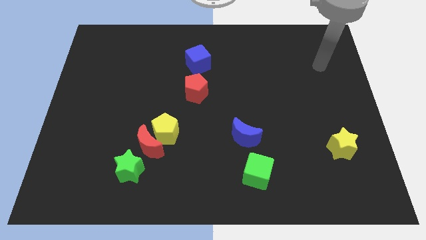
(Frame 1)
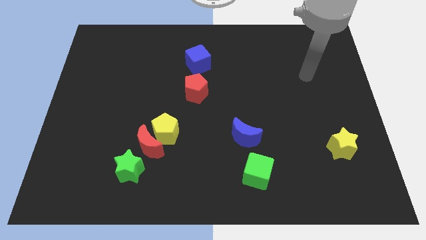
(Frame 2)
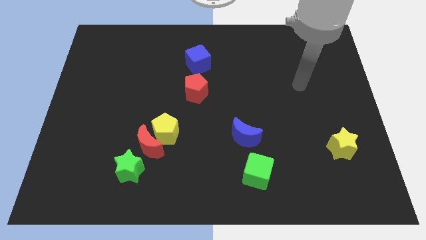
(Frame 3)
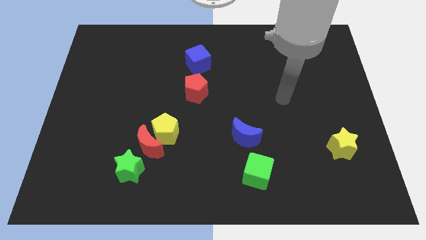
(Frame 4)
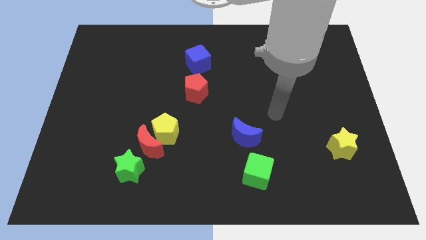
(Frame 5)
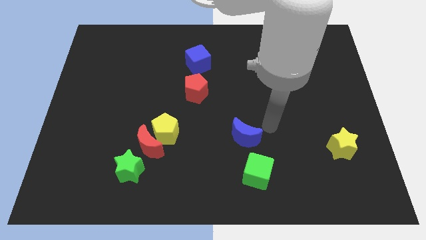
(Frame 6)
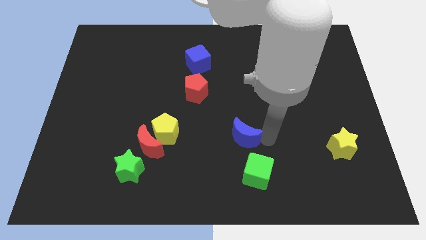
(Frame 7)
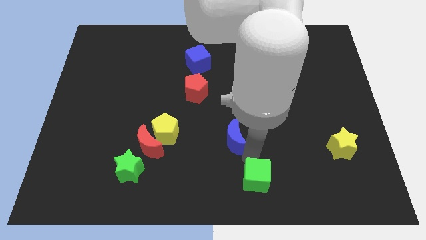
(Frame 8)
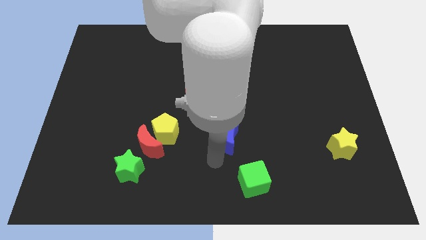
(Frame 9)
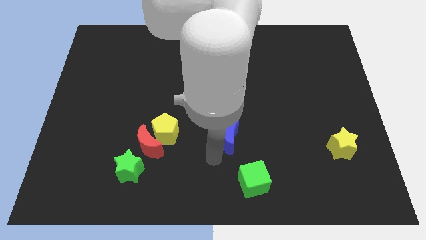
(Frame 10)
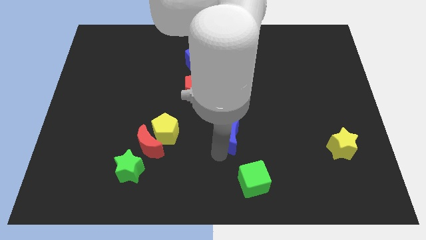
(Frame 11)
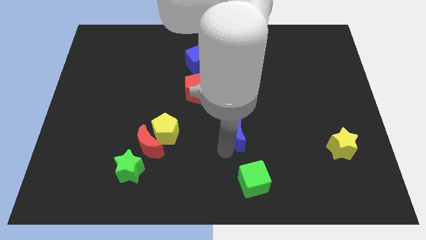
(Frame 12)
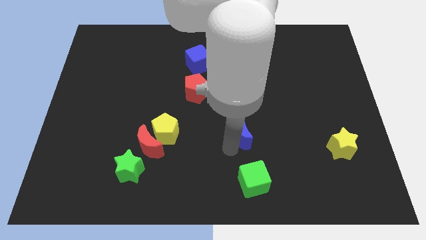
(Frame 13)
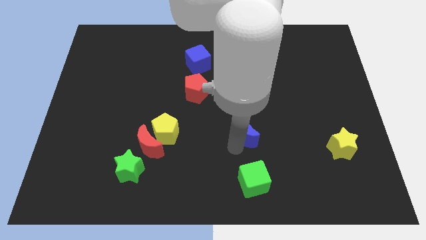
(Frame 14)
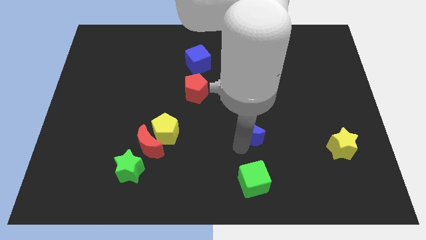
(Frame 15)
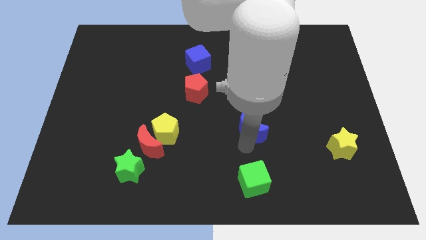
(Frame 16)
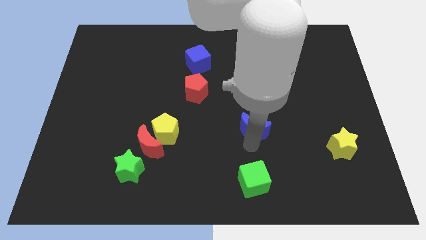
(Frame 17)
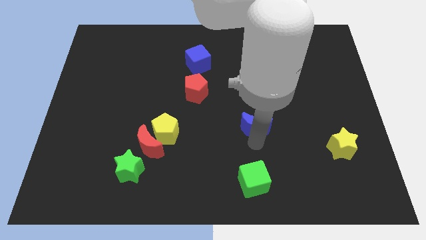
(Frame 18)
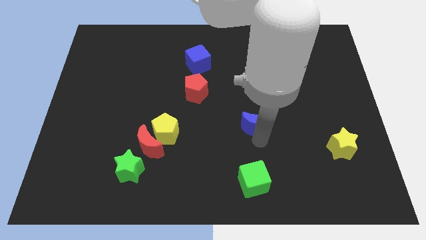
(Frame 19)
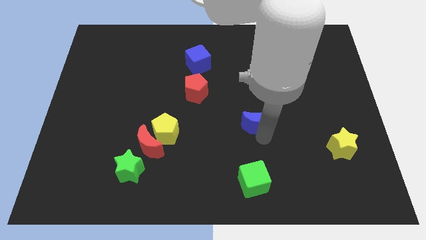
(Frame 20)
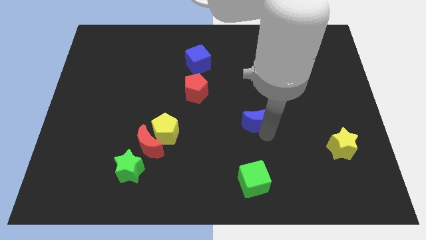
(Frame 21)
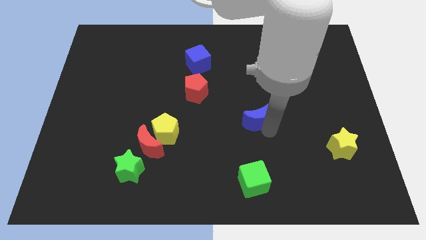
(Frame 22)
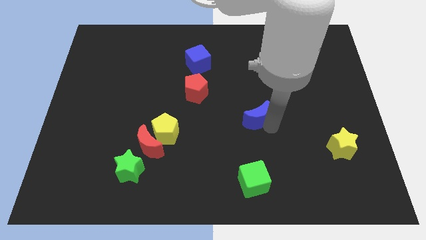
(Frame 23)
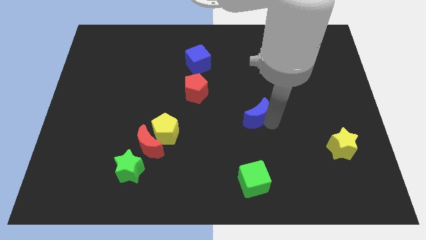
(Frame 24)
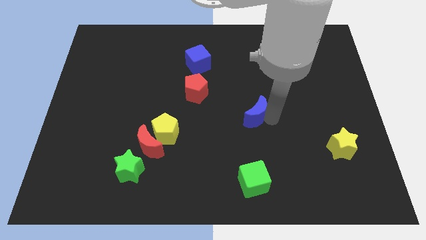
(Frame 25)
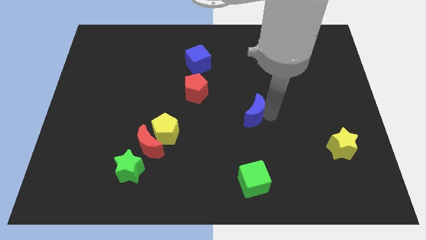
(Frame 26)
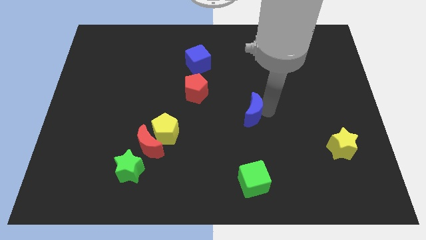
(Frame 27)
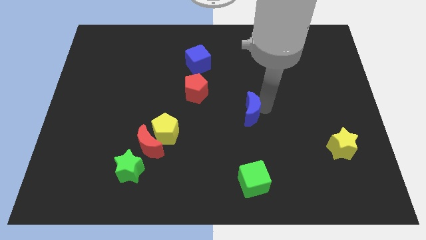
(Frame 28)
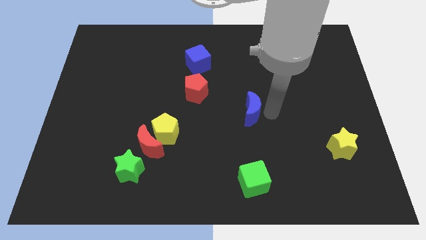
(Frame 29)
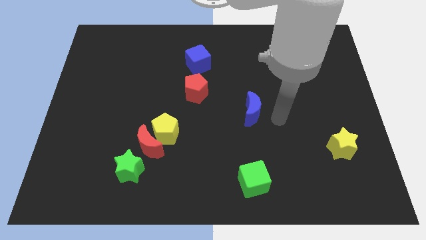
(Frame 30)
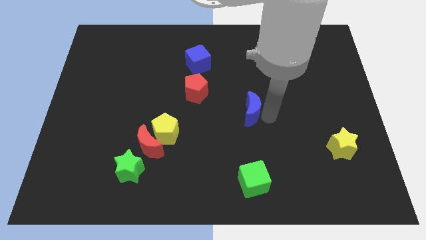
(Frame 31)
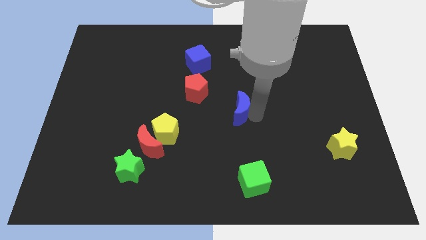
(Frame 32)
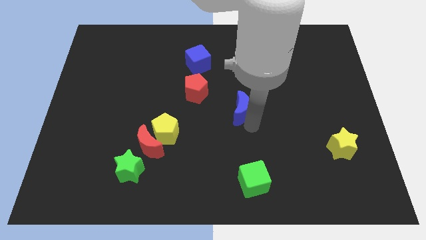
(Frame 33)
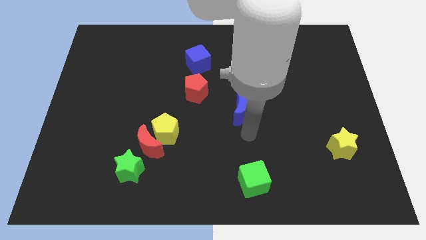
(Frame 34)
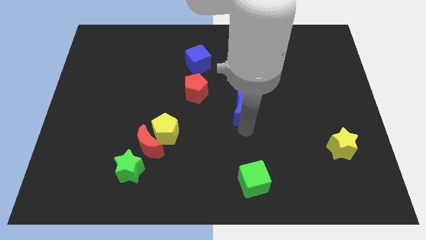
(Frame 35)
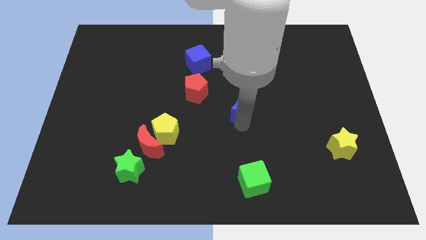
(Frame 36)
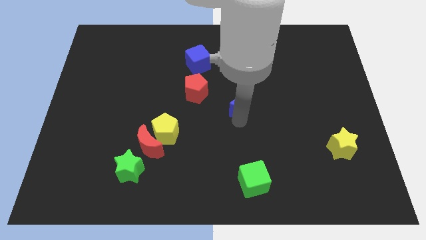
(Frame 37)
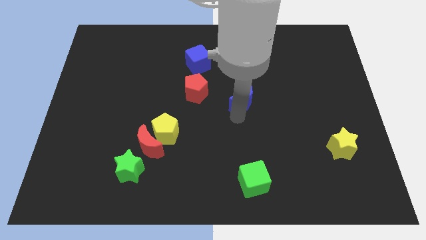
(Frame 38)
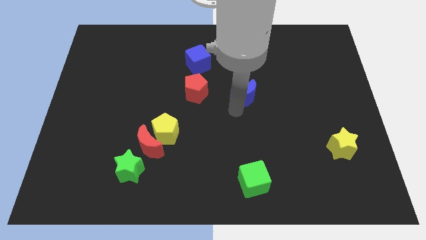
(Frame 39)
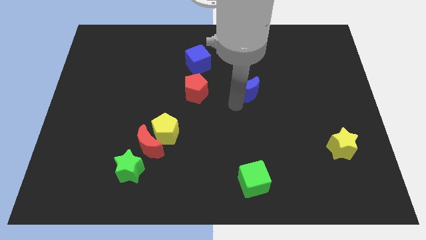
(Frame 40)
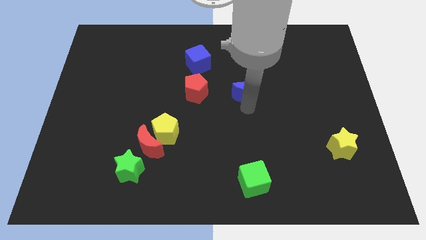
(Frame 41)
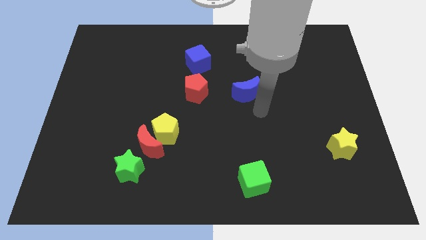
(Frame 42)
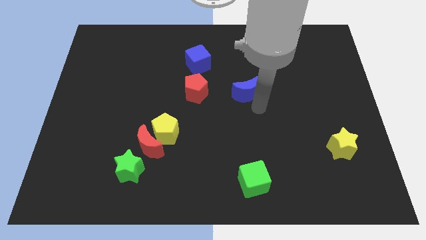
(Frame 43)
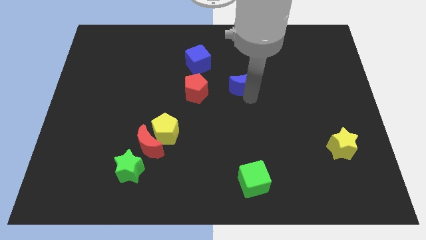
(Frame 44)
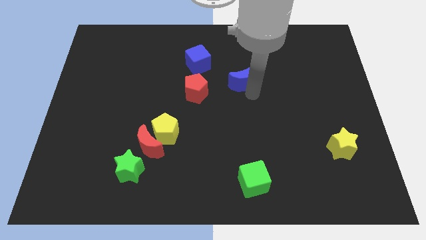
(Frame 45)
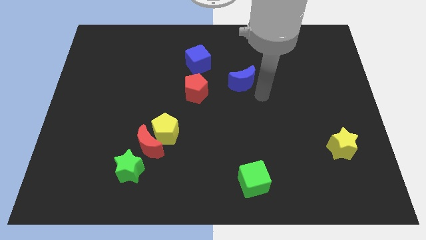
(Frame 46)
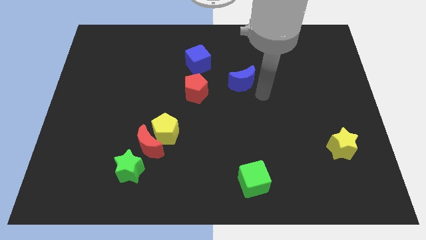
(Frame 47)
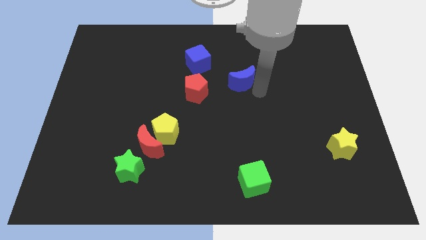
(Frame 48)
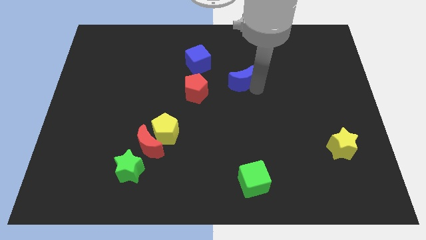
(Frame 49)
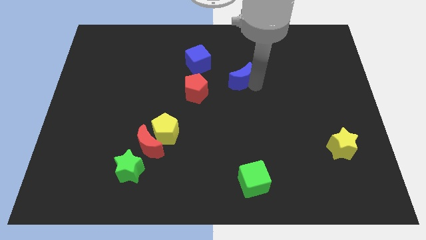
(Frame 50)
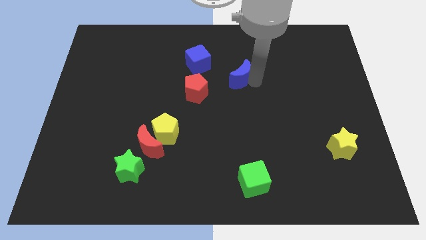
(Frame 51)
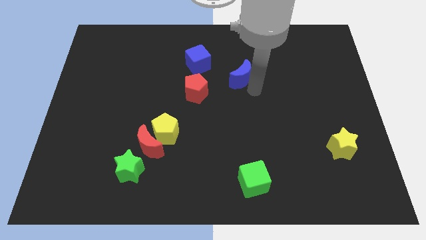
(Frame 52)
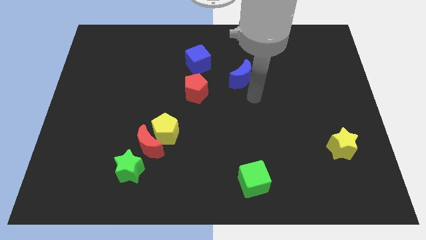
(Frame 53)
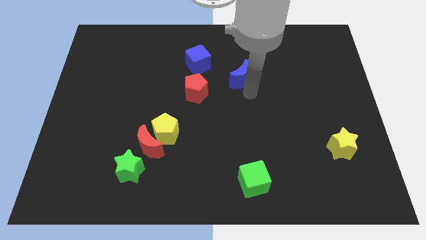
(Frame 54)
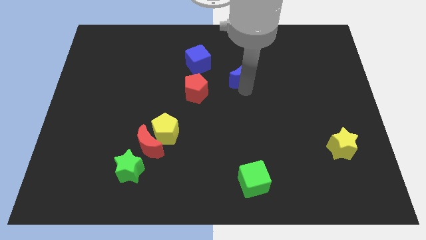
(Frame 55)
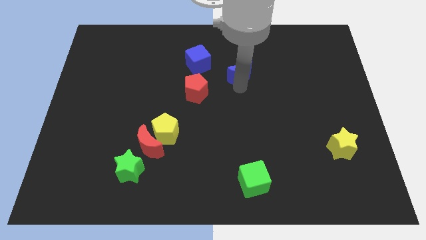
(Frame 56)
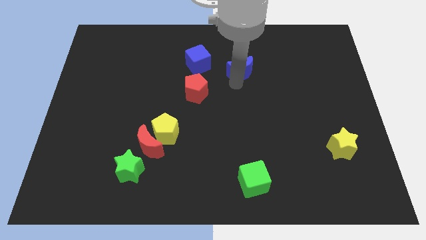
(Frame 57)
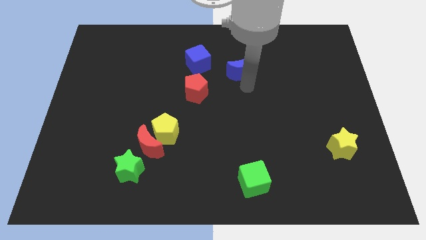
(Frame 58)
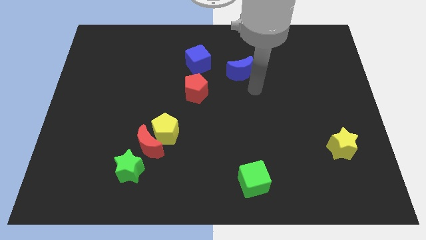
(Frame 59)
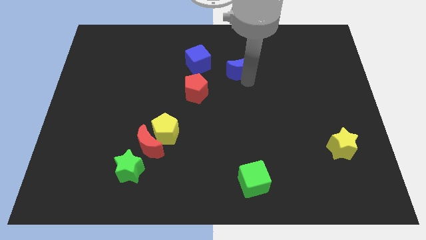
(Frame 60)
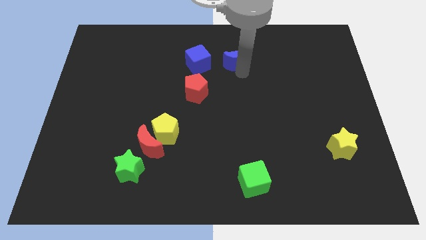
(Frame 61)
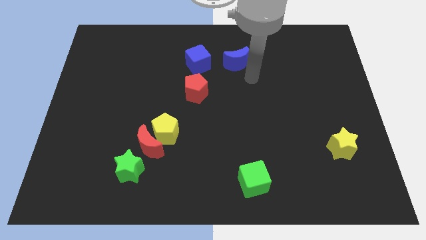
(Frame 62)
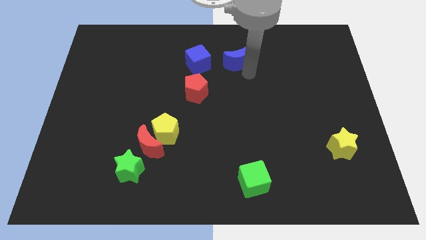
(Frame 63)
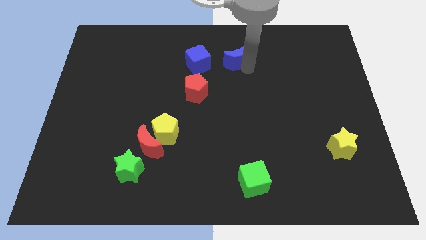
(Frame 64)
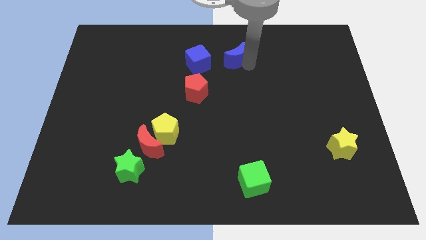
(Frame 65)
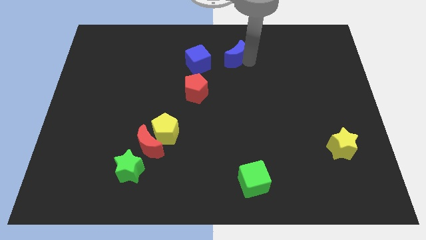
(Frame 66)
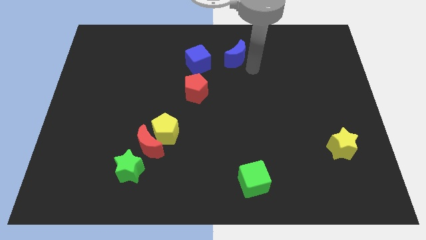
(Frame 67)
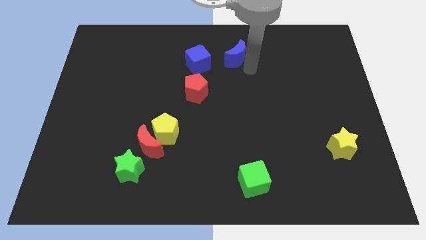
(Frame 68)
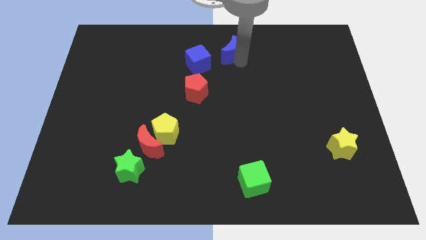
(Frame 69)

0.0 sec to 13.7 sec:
put the blue moon to the top
